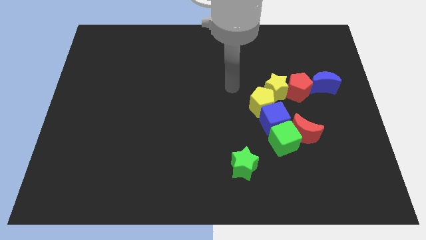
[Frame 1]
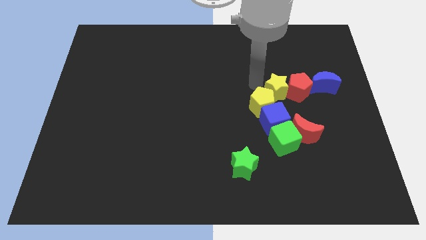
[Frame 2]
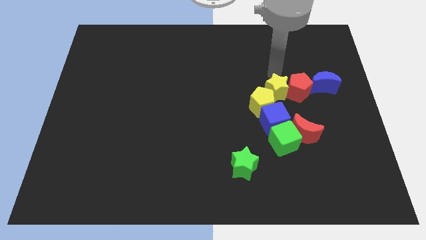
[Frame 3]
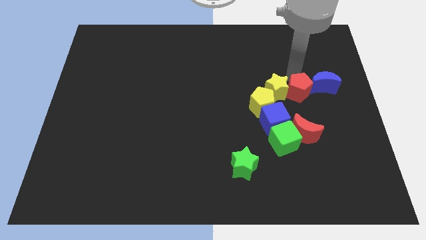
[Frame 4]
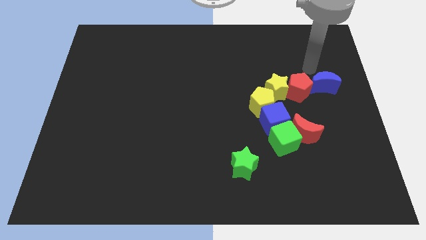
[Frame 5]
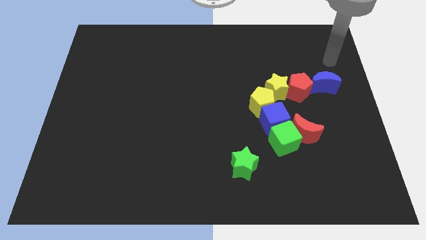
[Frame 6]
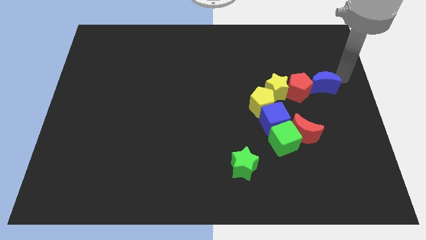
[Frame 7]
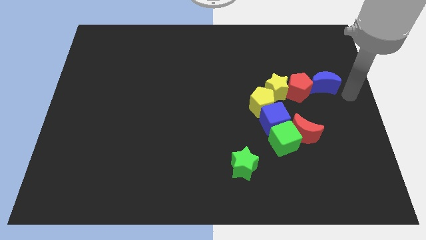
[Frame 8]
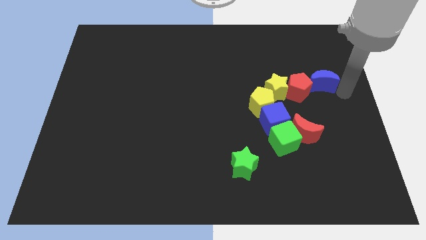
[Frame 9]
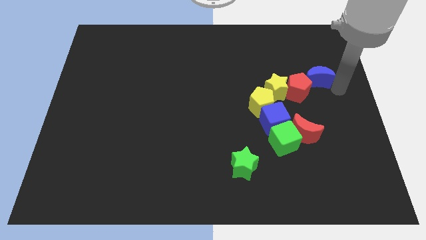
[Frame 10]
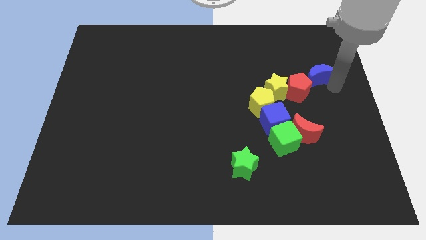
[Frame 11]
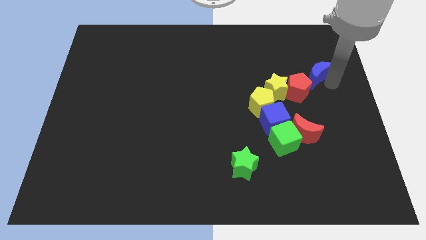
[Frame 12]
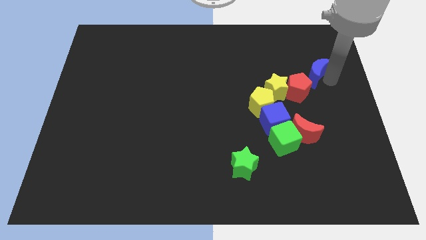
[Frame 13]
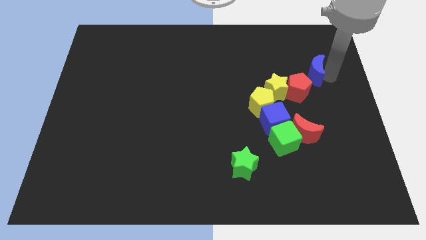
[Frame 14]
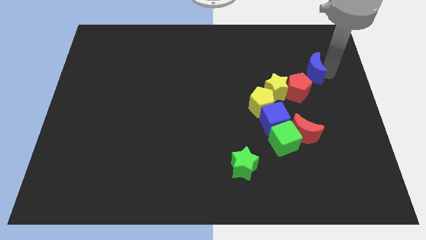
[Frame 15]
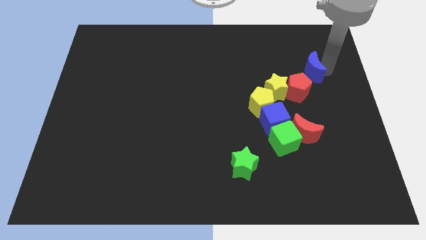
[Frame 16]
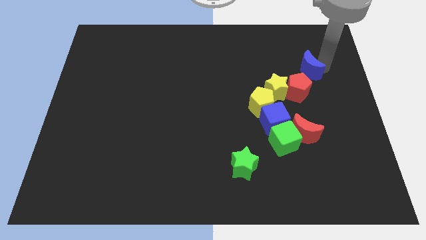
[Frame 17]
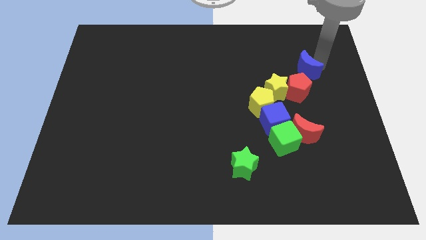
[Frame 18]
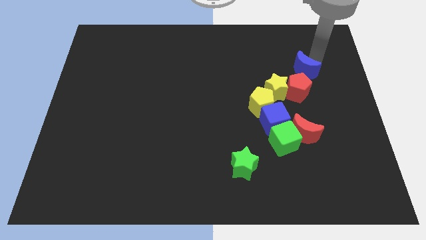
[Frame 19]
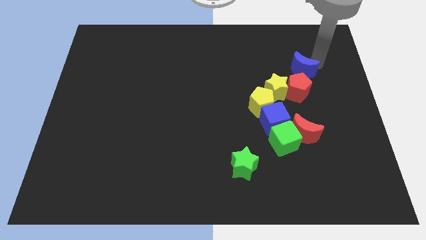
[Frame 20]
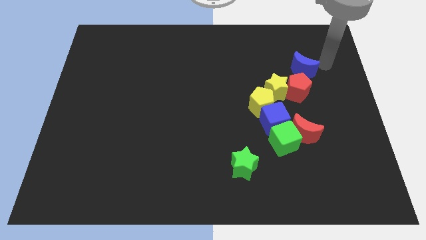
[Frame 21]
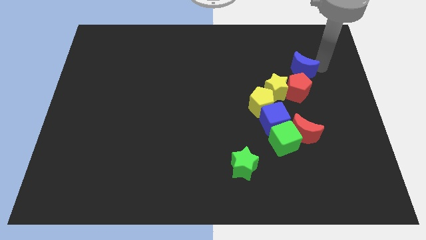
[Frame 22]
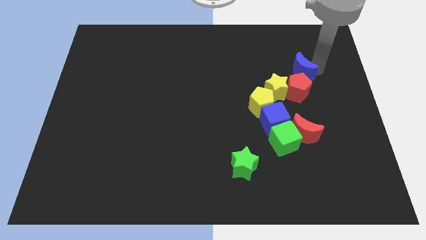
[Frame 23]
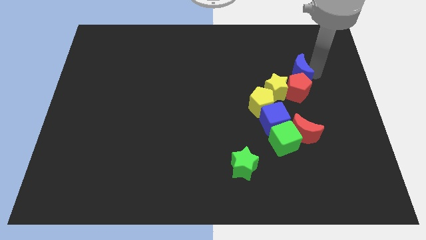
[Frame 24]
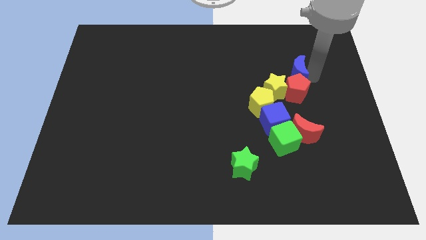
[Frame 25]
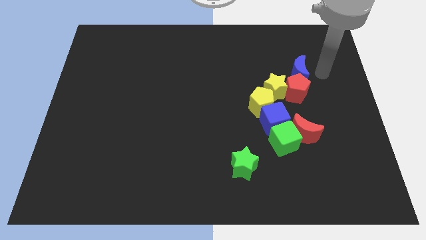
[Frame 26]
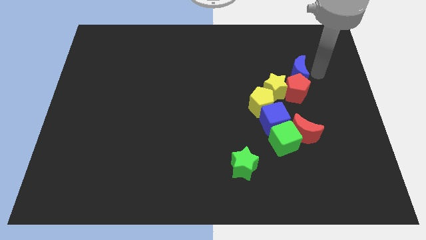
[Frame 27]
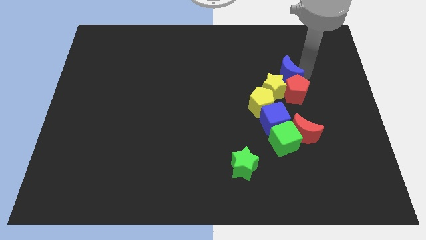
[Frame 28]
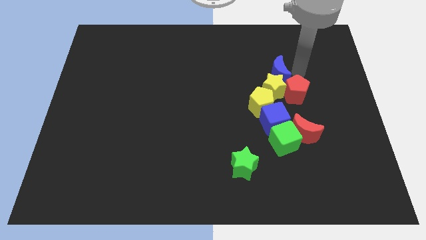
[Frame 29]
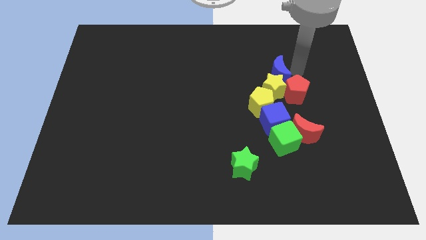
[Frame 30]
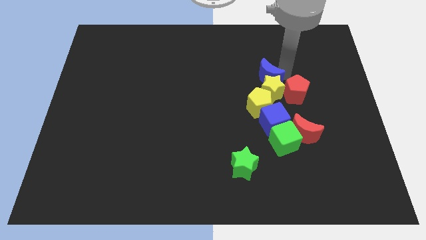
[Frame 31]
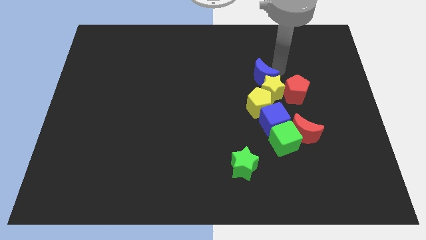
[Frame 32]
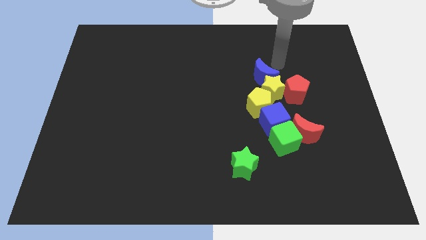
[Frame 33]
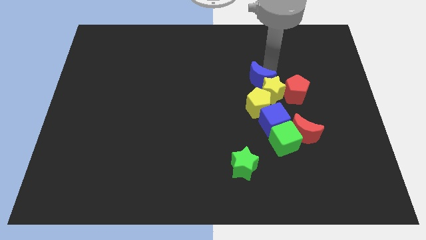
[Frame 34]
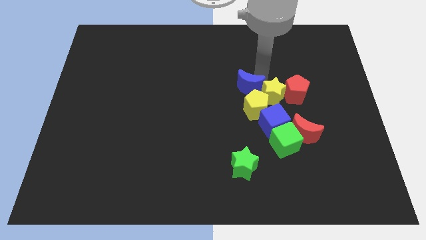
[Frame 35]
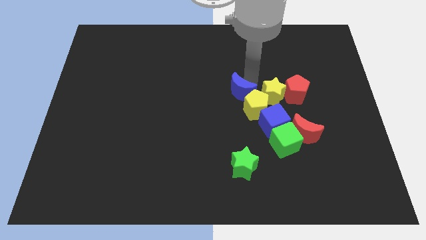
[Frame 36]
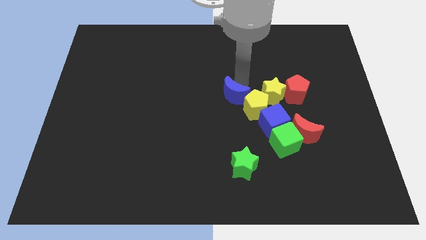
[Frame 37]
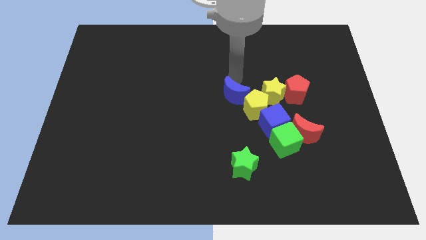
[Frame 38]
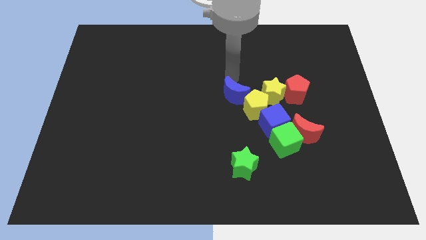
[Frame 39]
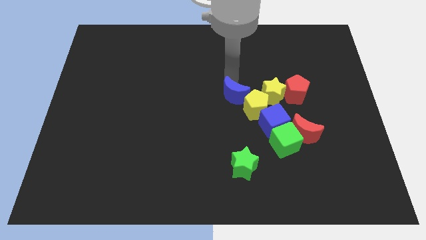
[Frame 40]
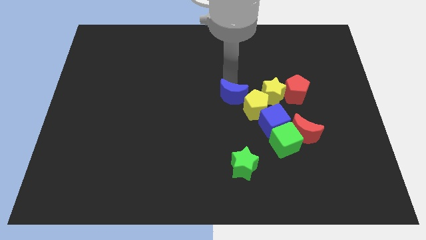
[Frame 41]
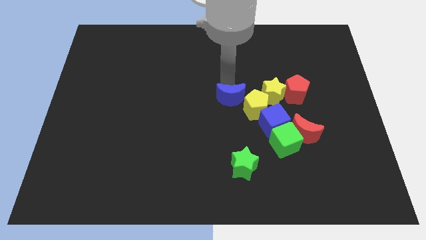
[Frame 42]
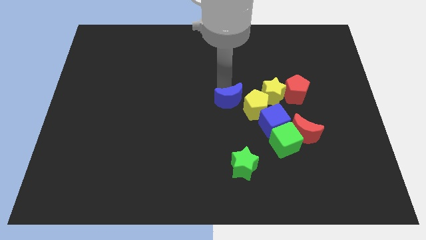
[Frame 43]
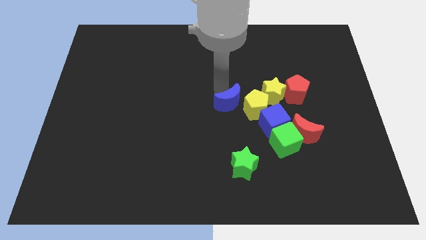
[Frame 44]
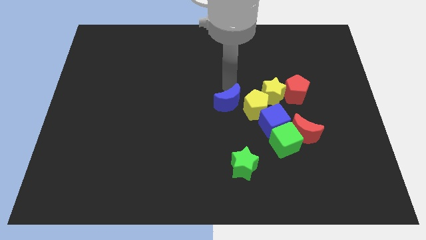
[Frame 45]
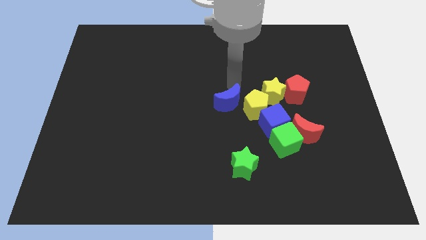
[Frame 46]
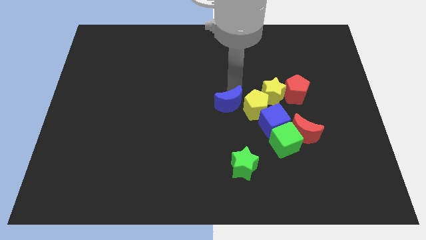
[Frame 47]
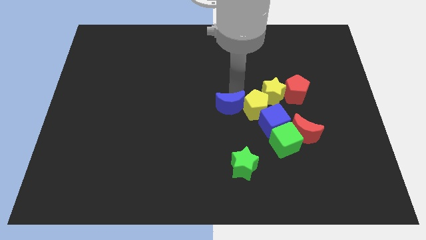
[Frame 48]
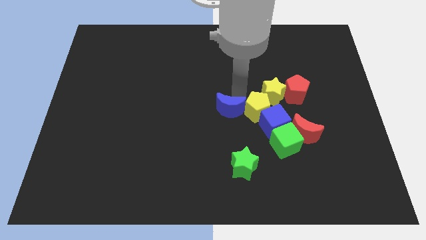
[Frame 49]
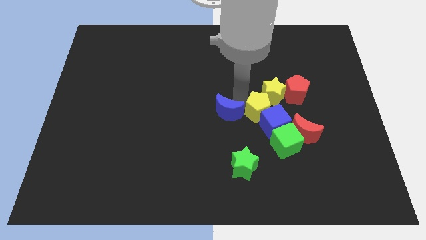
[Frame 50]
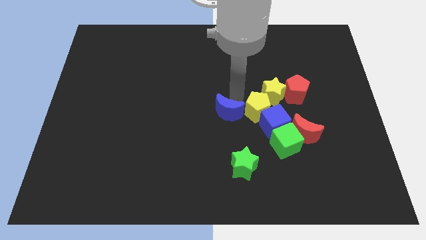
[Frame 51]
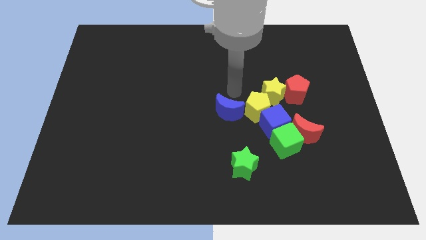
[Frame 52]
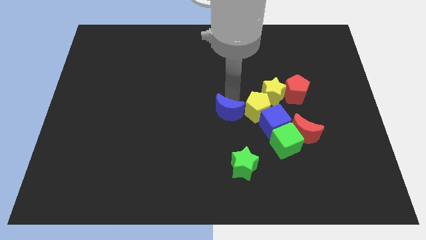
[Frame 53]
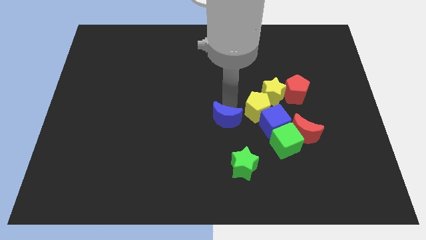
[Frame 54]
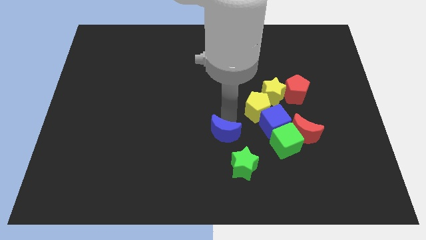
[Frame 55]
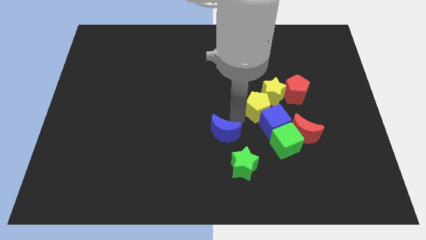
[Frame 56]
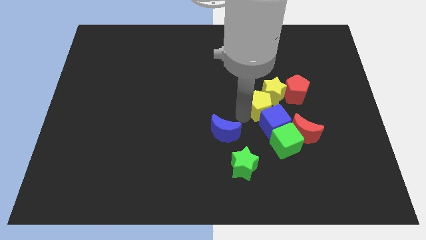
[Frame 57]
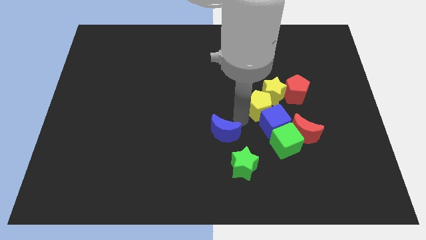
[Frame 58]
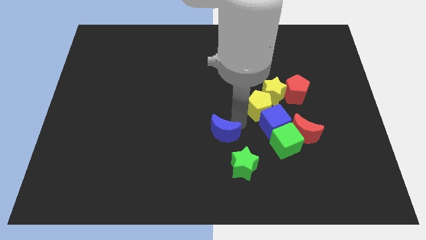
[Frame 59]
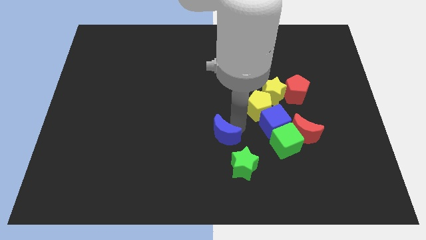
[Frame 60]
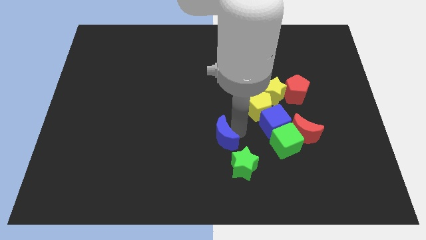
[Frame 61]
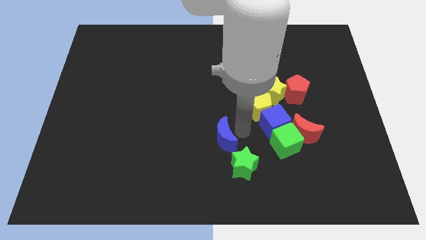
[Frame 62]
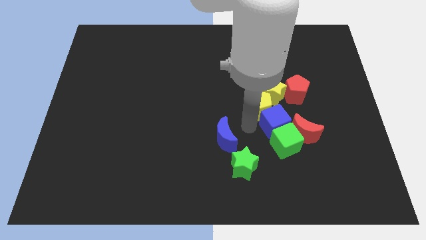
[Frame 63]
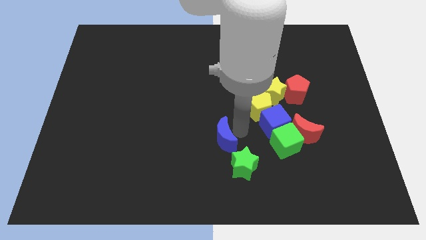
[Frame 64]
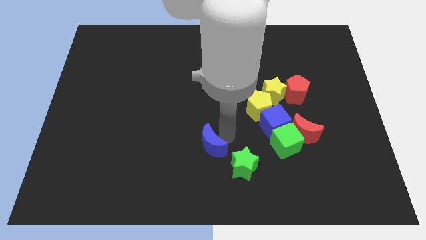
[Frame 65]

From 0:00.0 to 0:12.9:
push the blue moon to the left side of the green star
